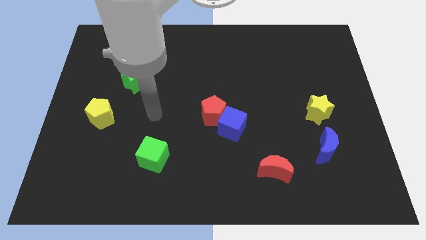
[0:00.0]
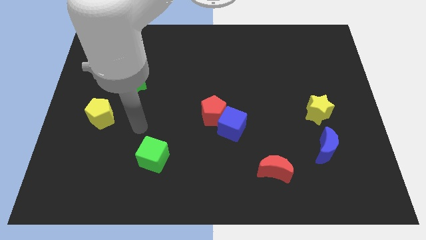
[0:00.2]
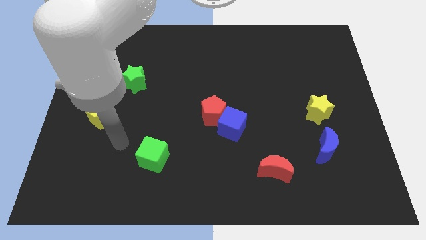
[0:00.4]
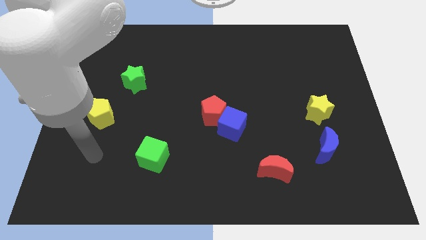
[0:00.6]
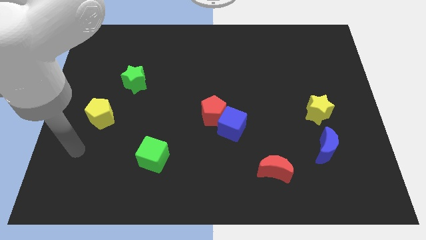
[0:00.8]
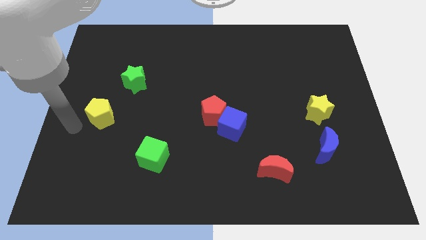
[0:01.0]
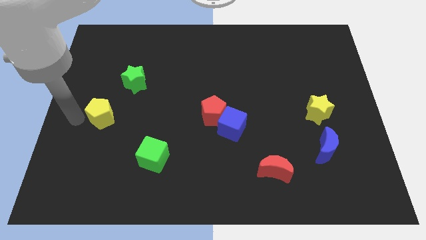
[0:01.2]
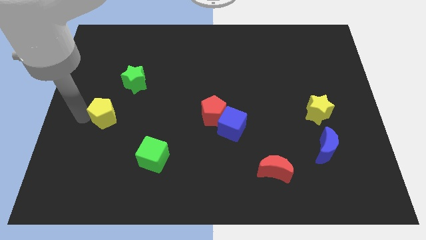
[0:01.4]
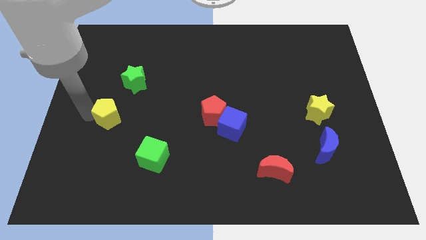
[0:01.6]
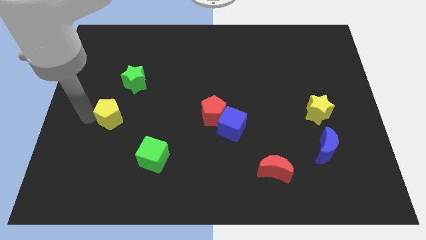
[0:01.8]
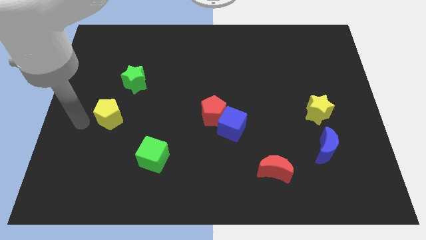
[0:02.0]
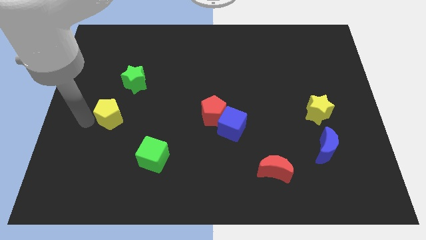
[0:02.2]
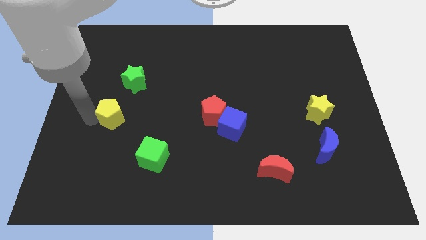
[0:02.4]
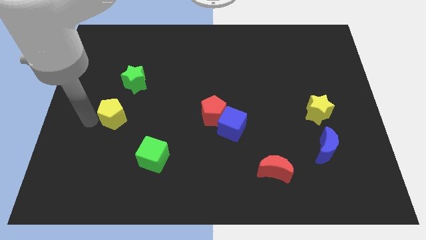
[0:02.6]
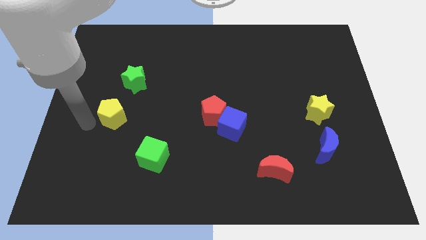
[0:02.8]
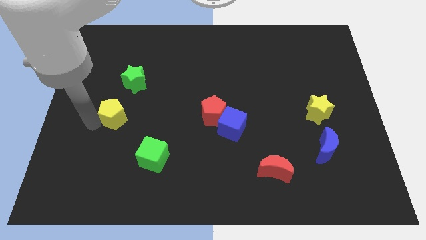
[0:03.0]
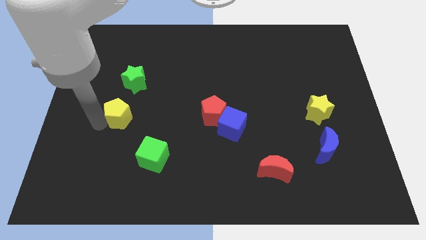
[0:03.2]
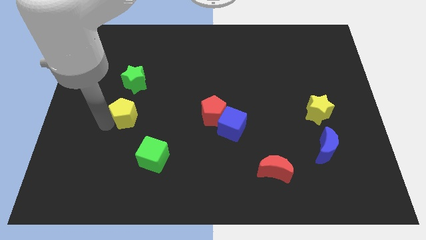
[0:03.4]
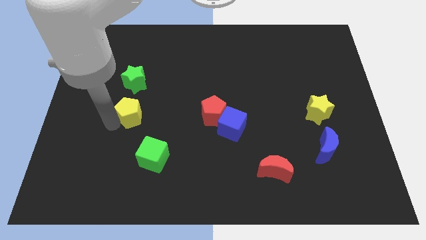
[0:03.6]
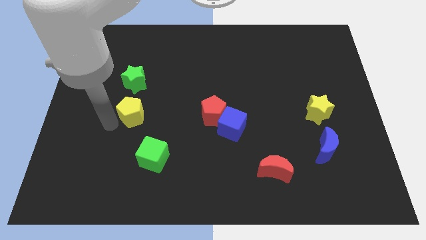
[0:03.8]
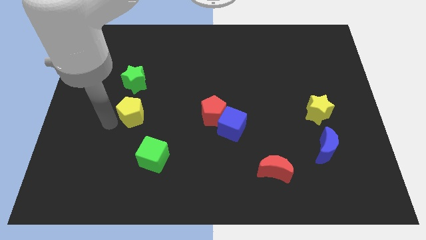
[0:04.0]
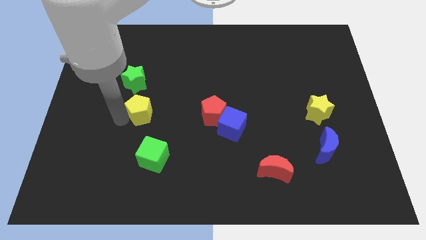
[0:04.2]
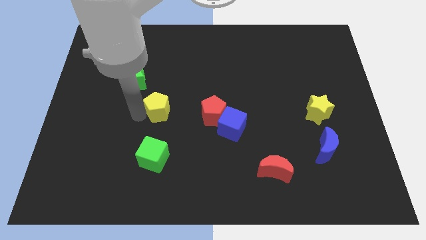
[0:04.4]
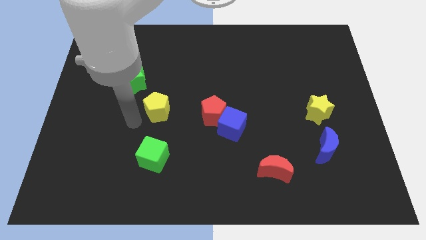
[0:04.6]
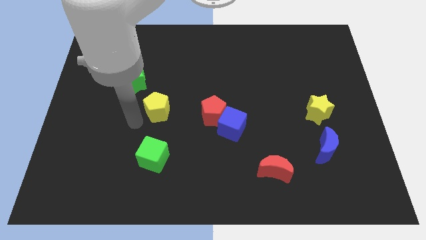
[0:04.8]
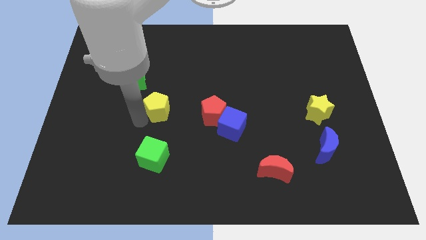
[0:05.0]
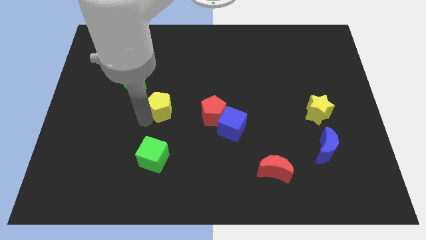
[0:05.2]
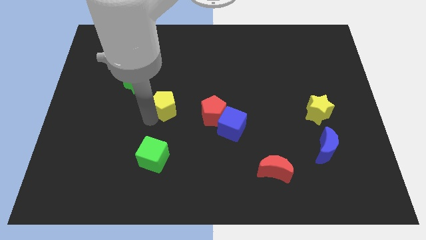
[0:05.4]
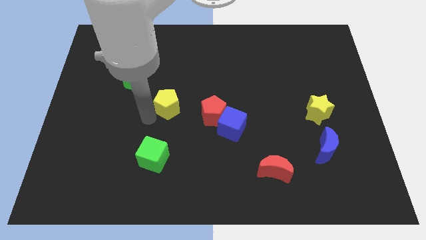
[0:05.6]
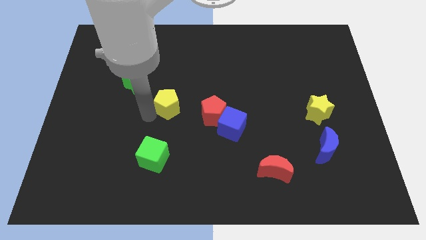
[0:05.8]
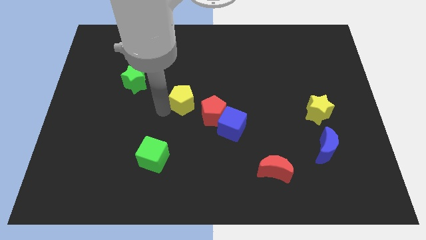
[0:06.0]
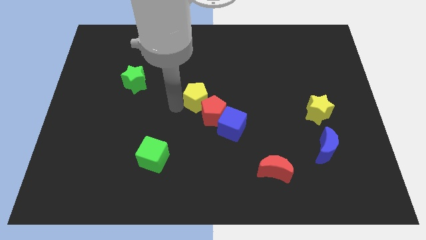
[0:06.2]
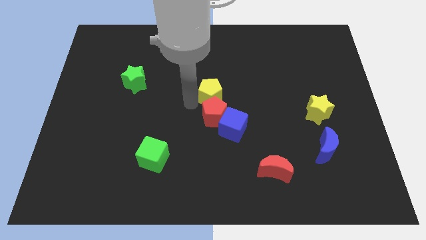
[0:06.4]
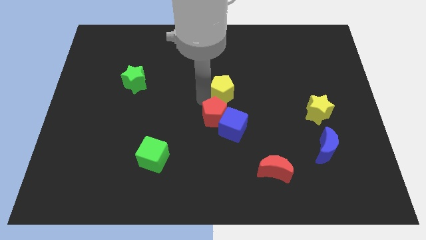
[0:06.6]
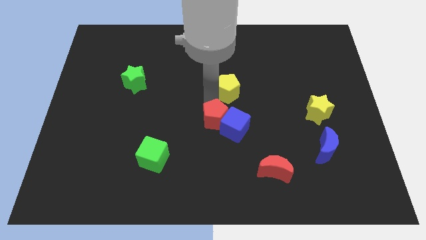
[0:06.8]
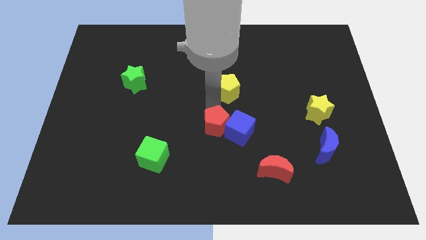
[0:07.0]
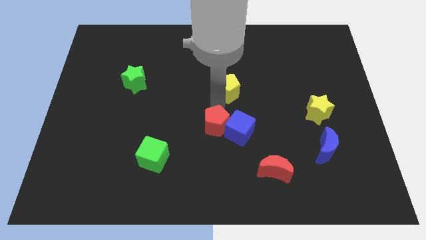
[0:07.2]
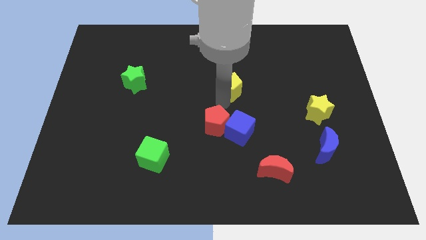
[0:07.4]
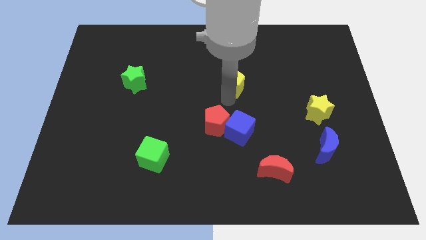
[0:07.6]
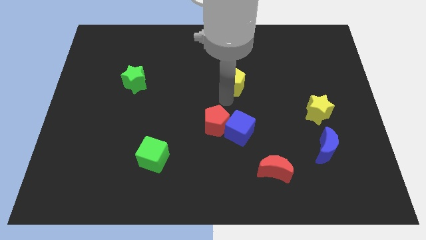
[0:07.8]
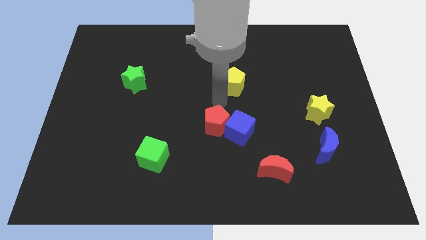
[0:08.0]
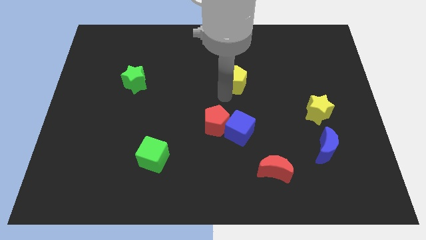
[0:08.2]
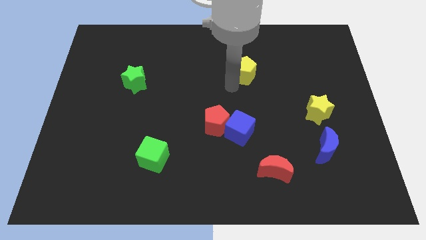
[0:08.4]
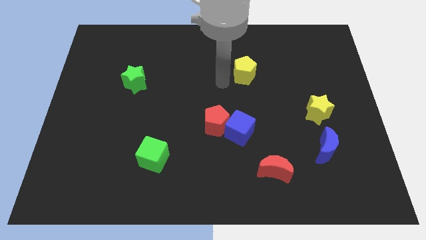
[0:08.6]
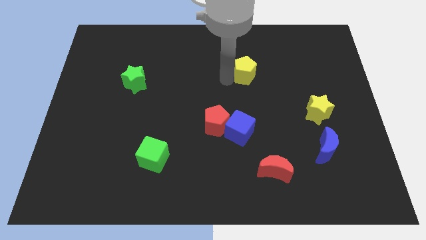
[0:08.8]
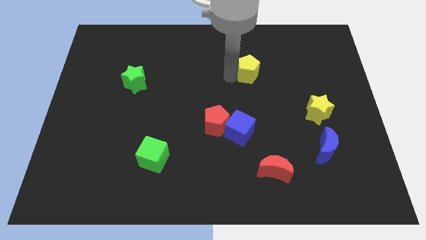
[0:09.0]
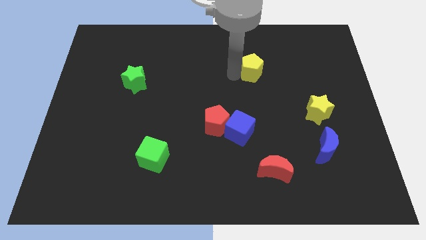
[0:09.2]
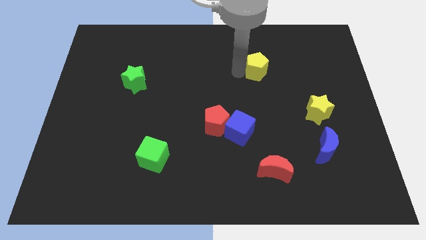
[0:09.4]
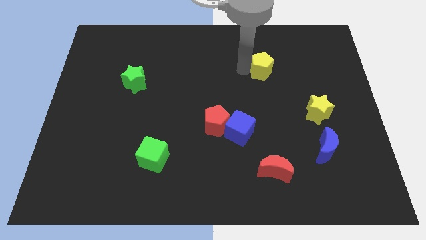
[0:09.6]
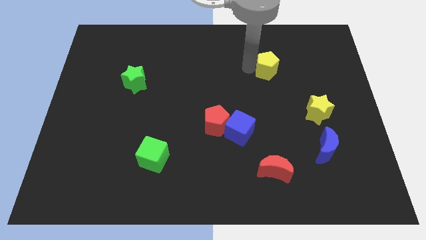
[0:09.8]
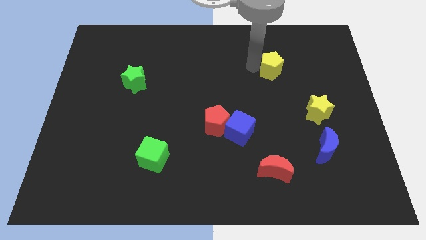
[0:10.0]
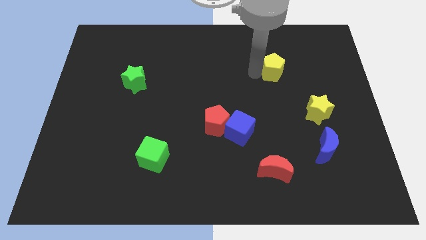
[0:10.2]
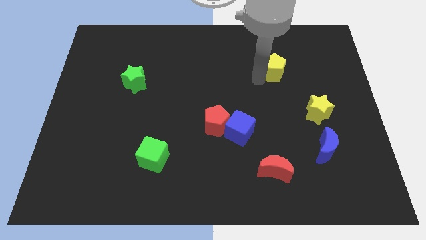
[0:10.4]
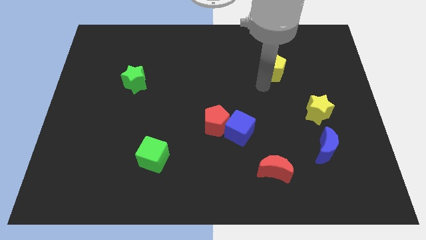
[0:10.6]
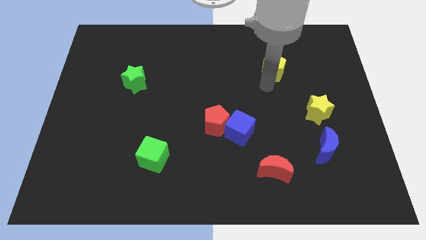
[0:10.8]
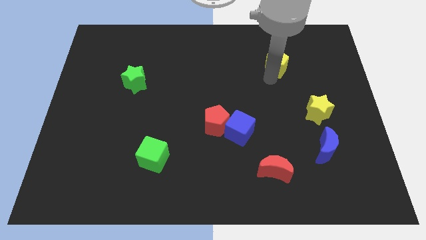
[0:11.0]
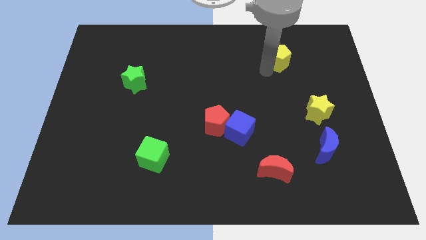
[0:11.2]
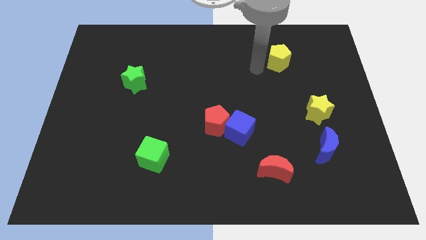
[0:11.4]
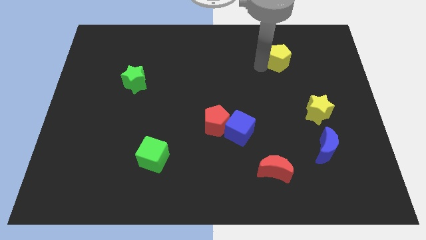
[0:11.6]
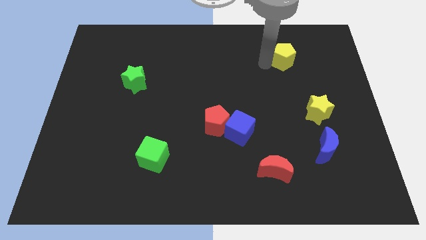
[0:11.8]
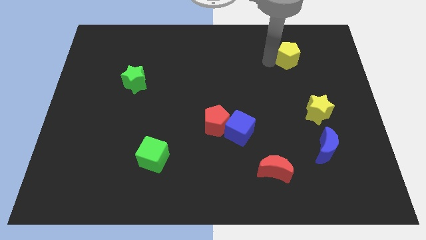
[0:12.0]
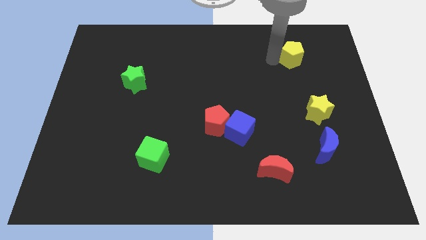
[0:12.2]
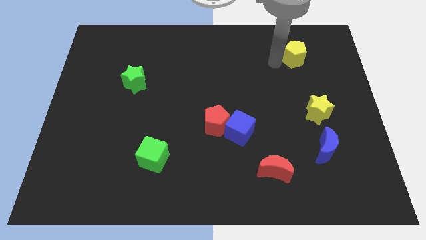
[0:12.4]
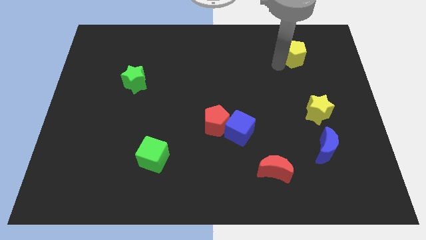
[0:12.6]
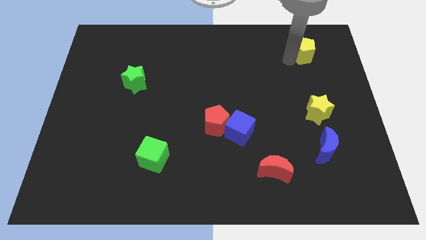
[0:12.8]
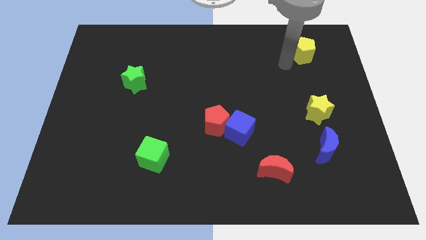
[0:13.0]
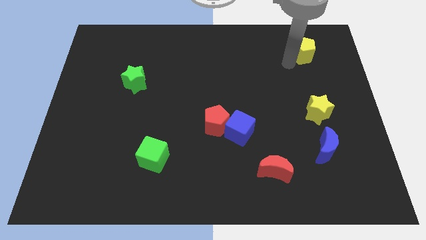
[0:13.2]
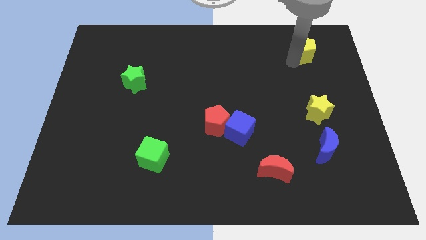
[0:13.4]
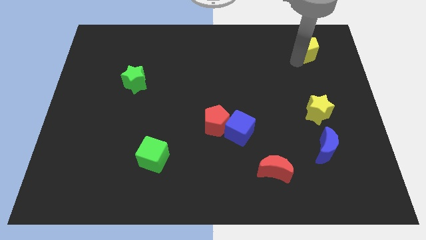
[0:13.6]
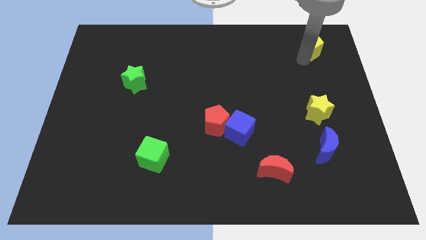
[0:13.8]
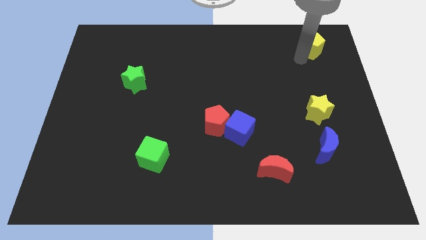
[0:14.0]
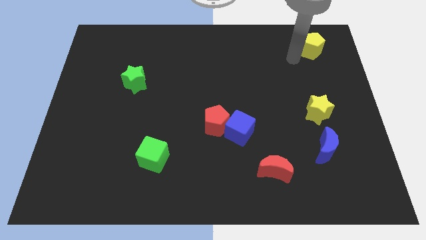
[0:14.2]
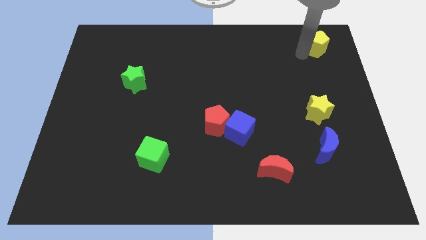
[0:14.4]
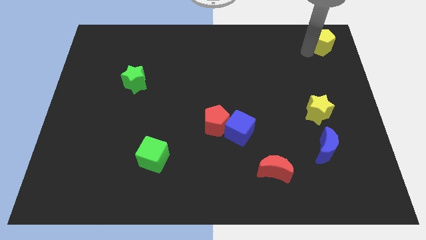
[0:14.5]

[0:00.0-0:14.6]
put the yellow pentagon to the upper right corner
